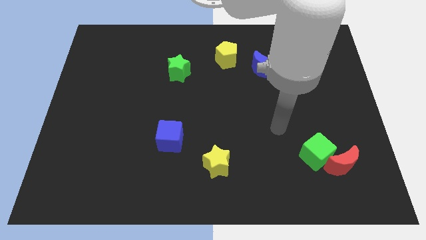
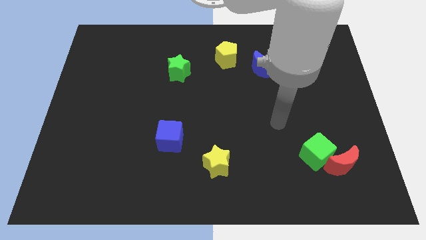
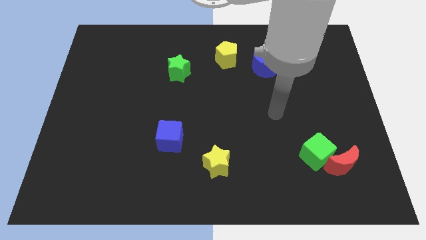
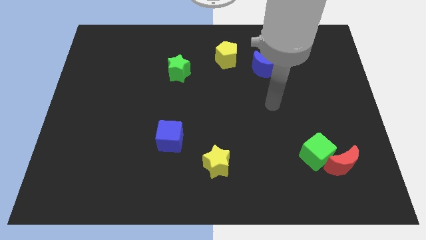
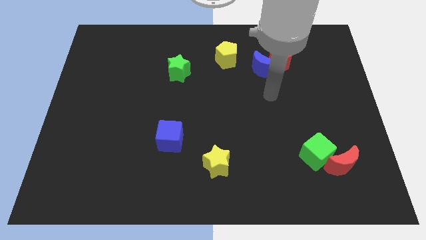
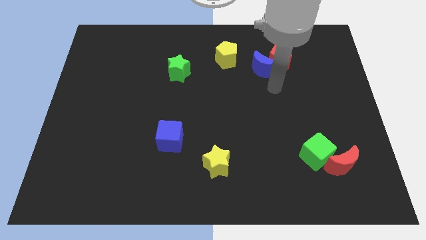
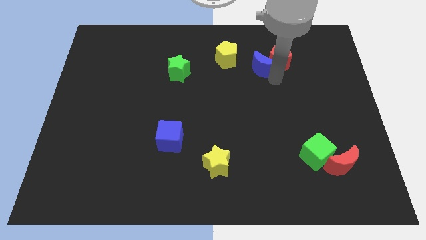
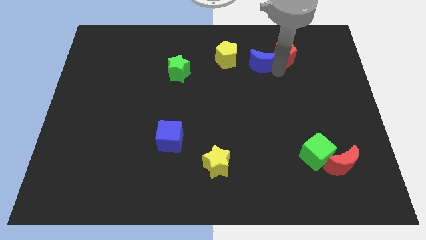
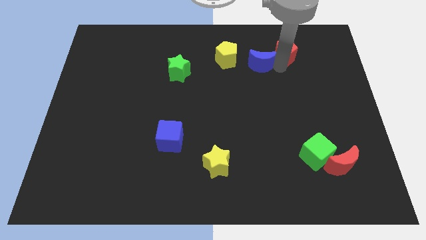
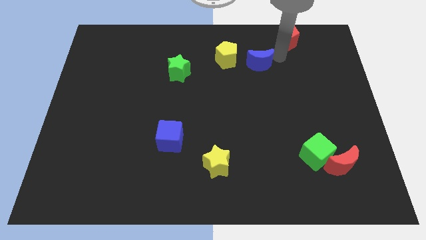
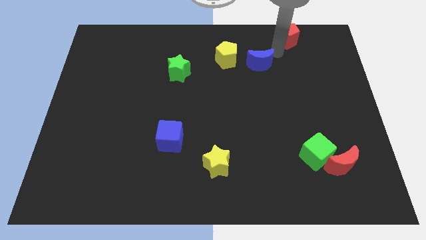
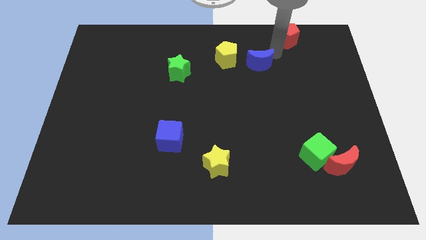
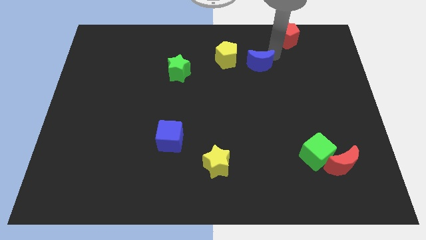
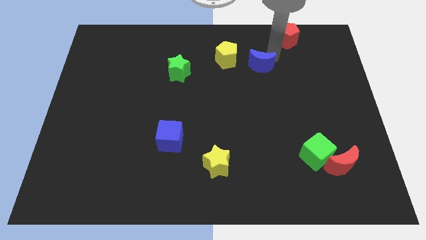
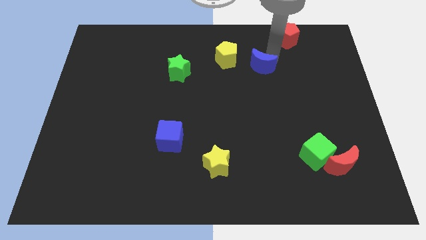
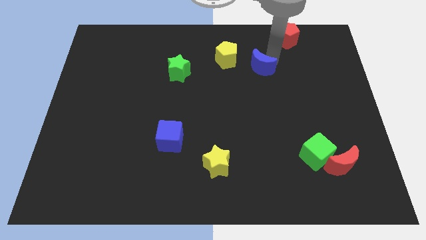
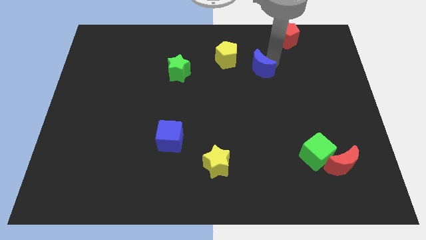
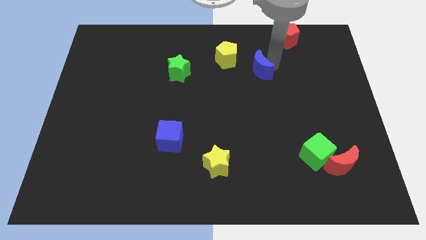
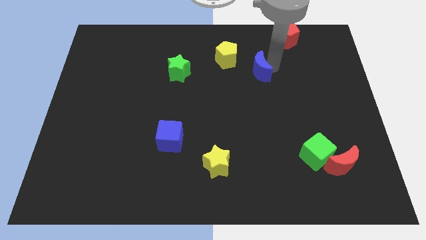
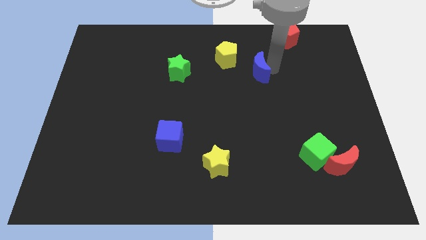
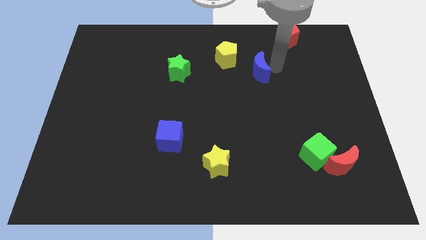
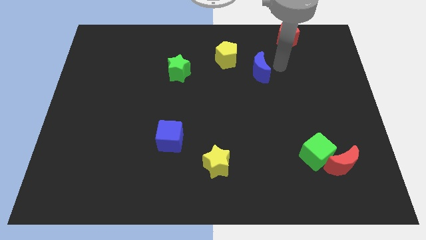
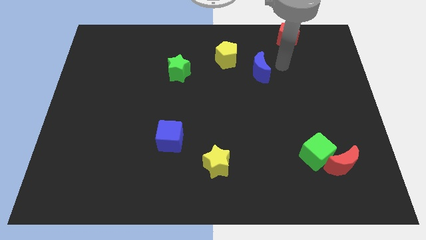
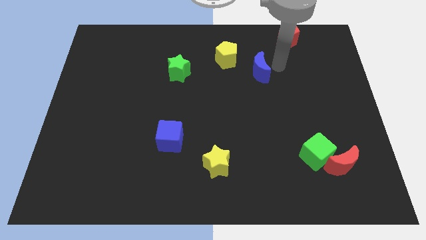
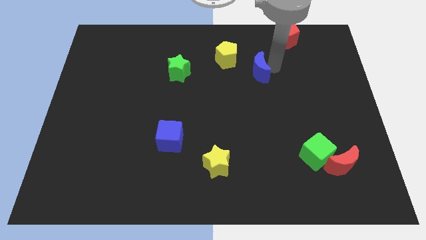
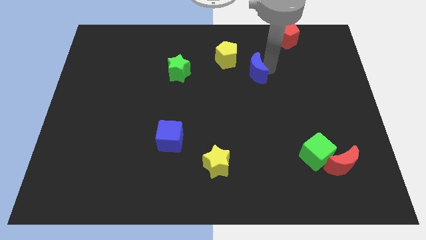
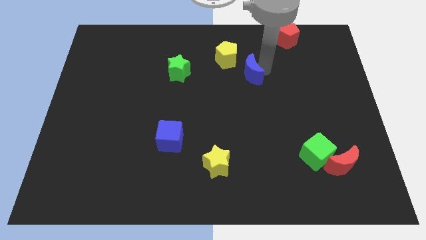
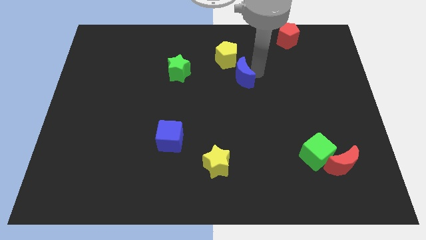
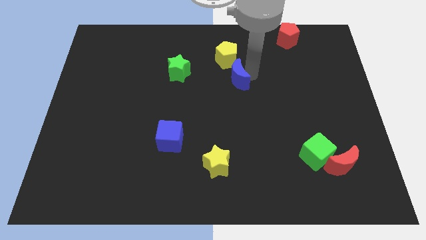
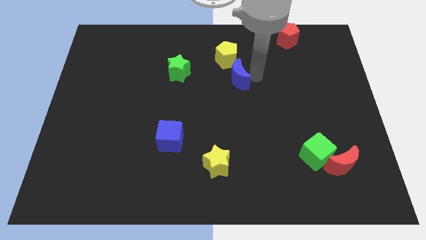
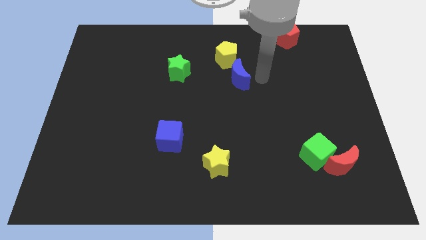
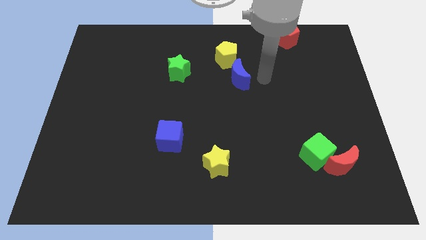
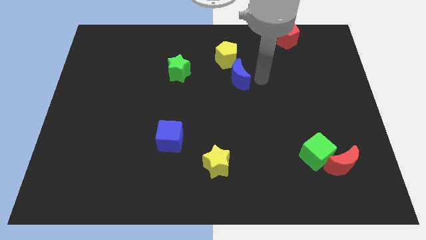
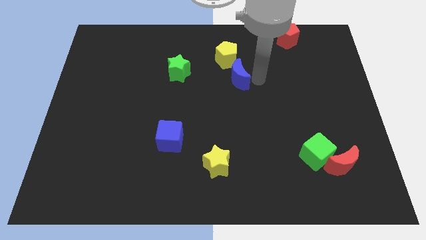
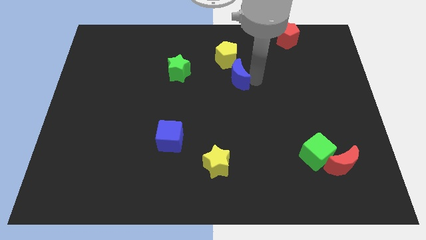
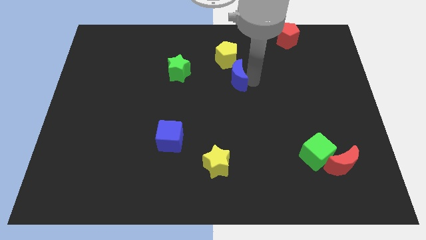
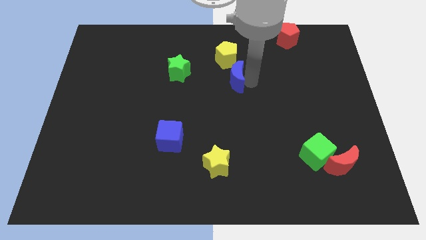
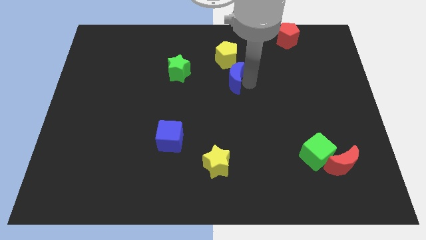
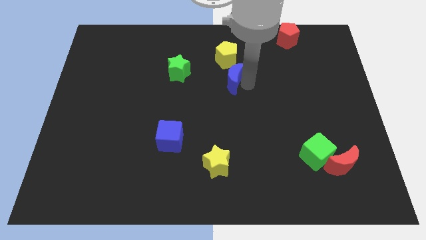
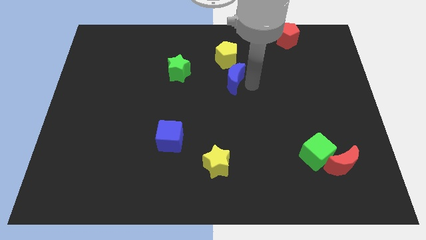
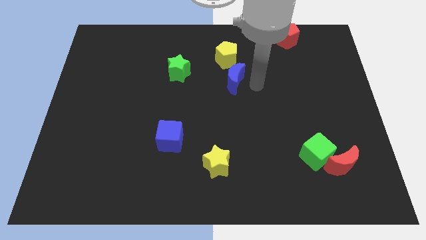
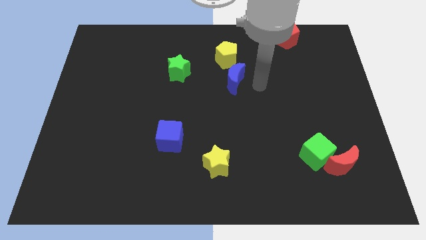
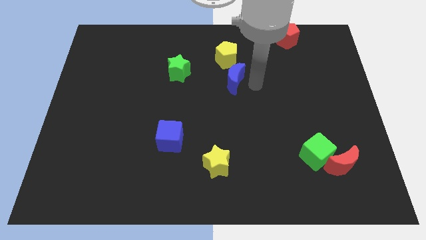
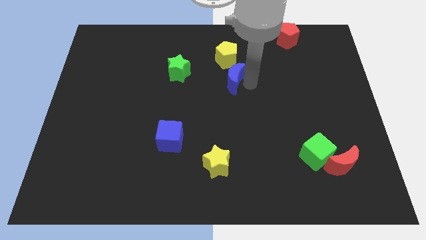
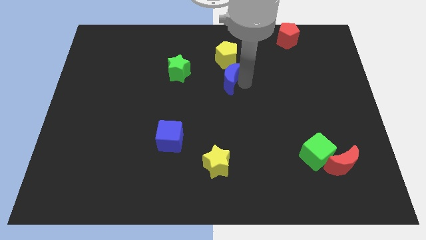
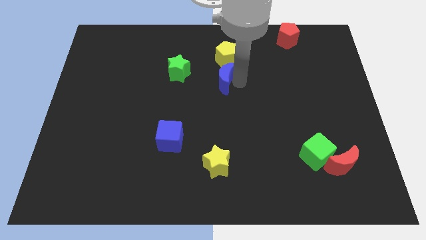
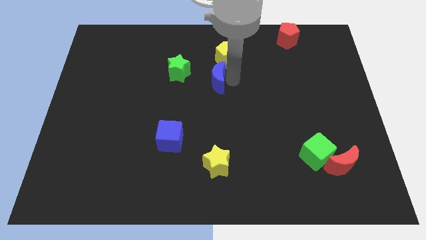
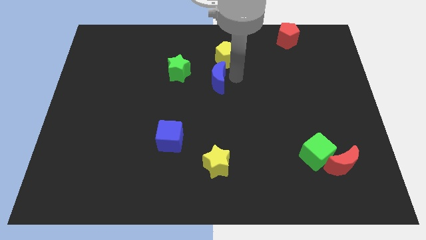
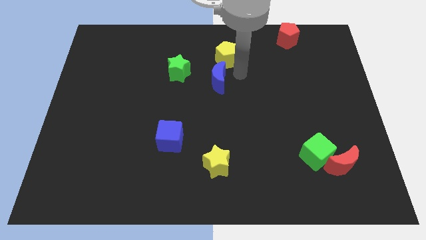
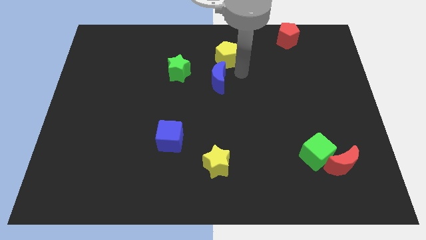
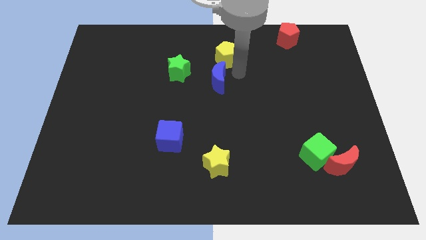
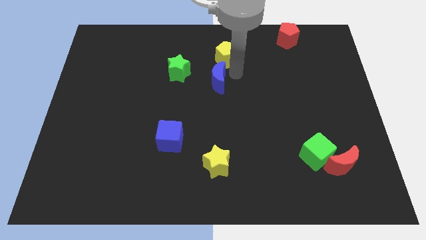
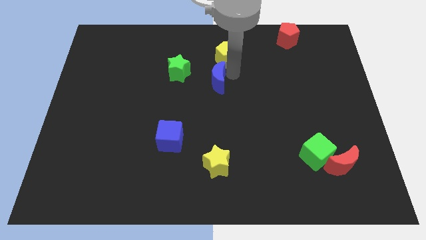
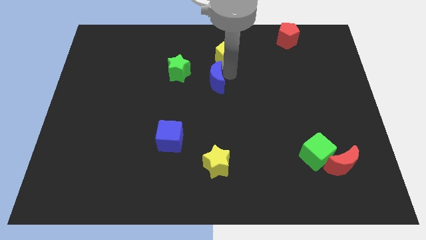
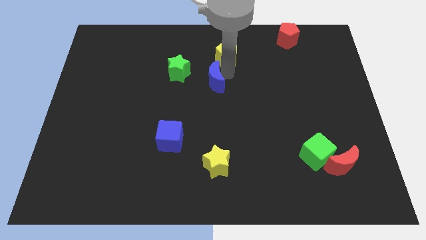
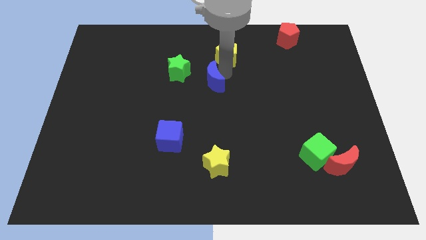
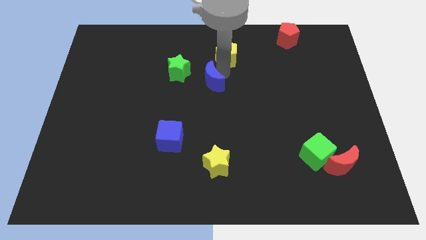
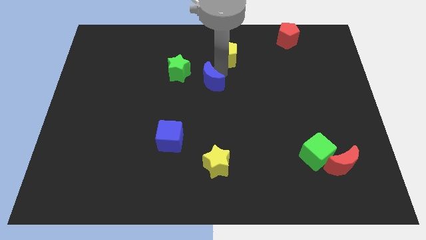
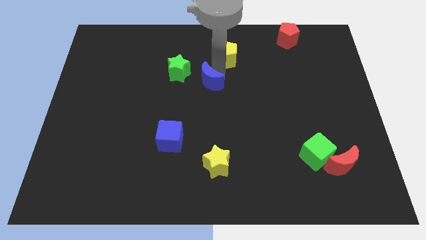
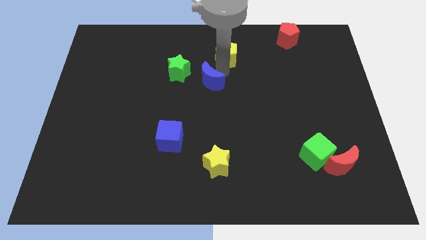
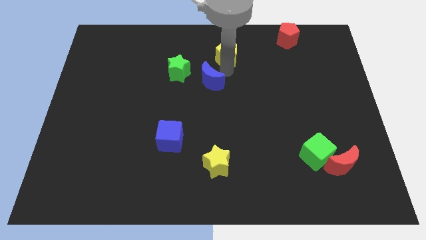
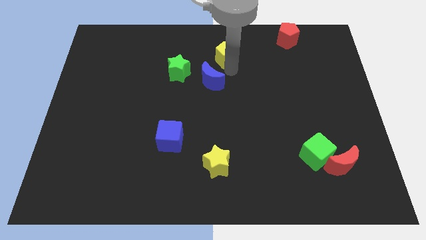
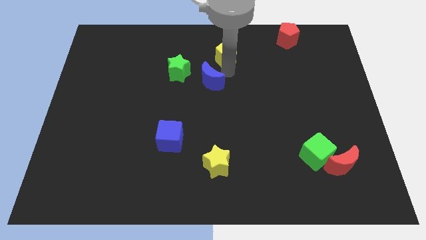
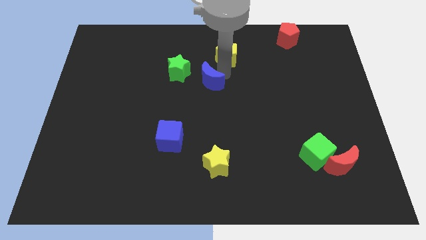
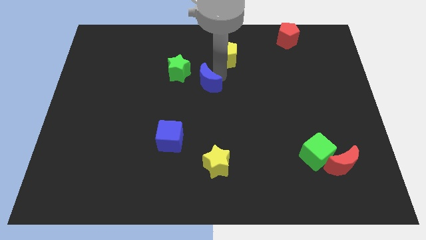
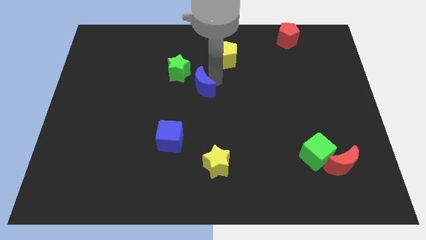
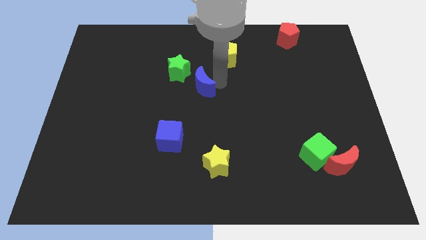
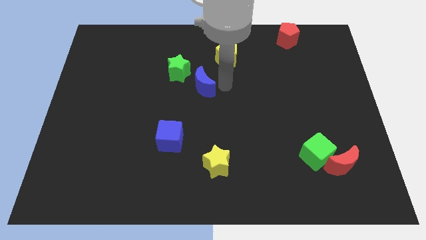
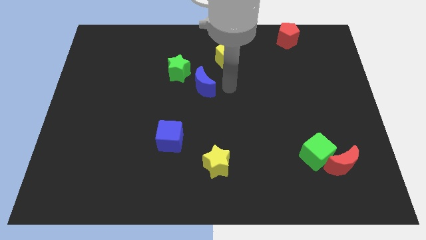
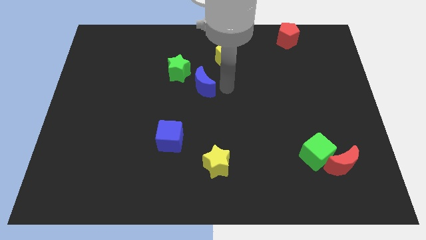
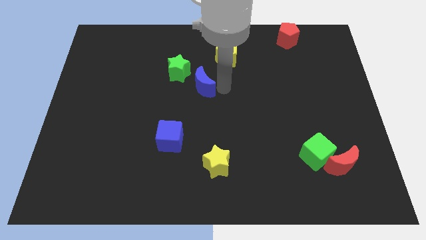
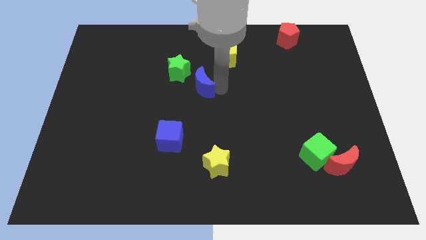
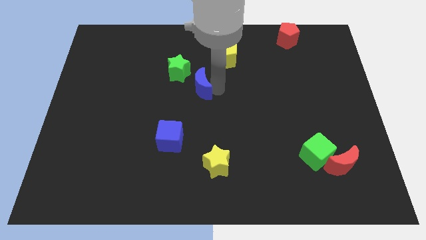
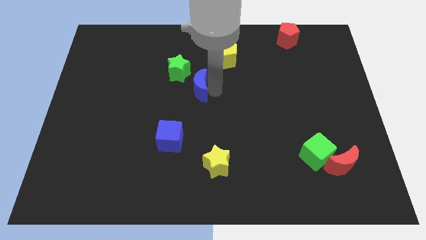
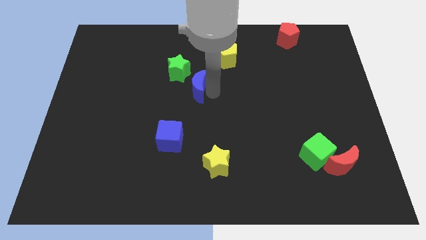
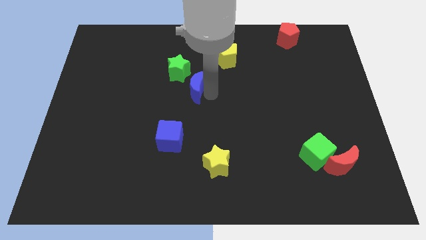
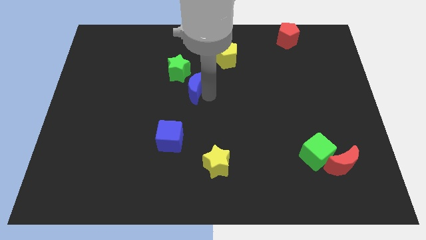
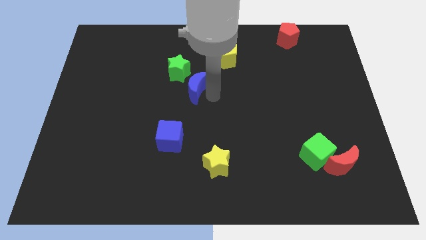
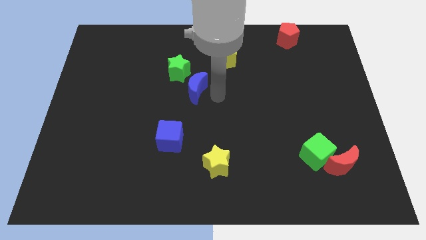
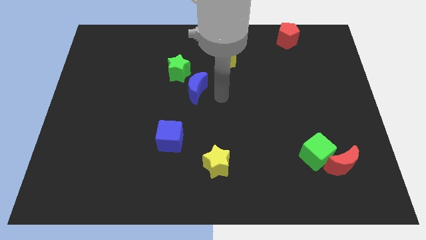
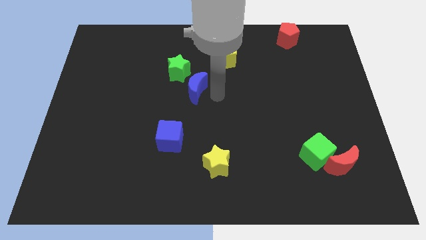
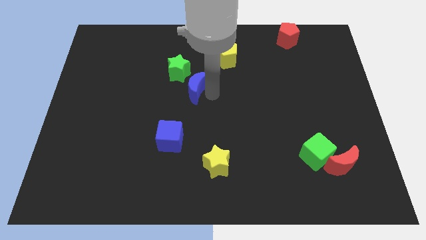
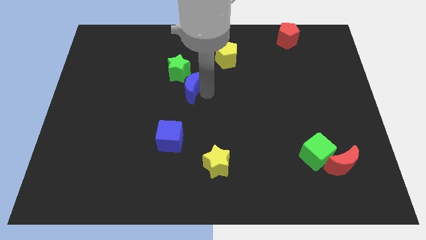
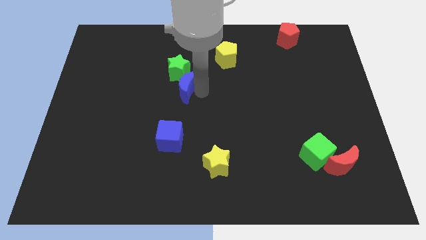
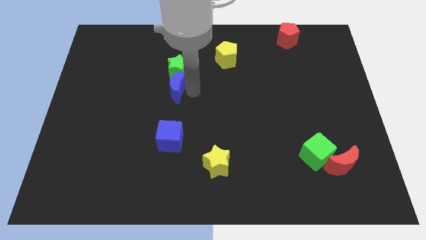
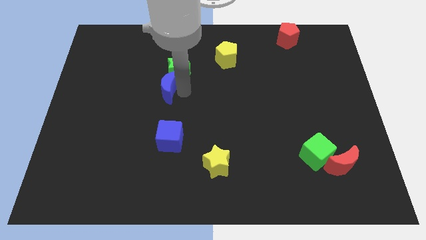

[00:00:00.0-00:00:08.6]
move the blue moon to the left
